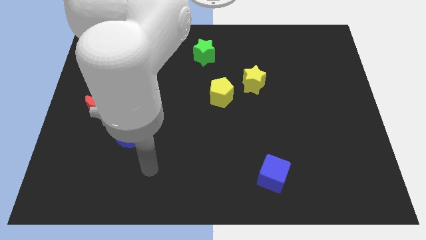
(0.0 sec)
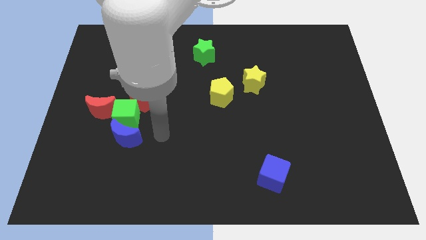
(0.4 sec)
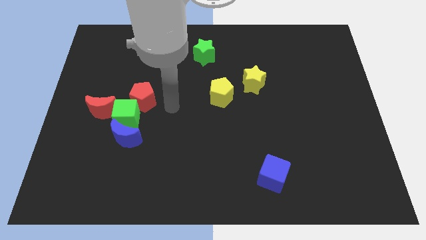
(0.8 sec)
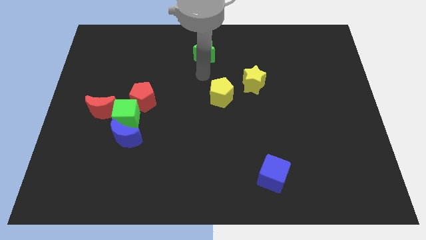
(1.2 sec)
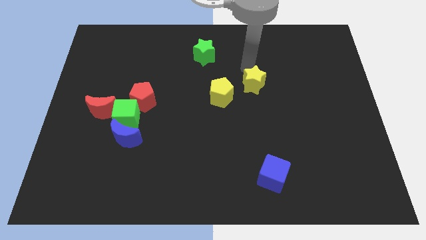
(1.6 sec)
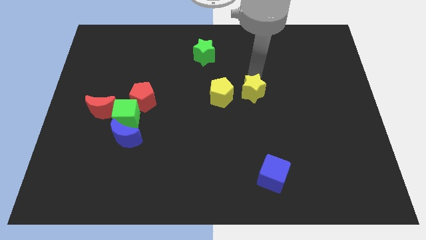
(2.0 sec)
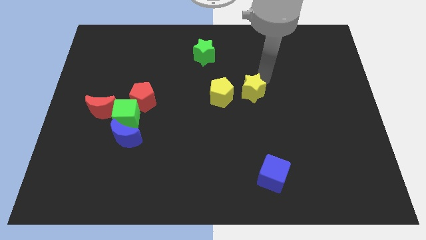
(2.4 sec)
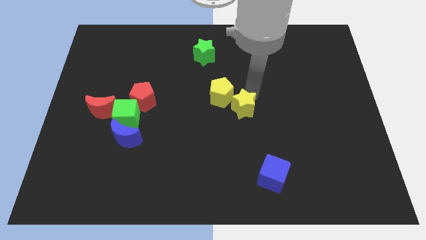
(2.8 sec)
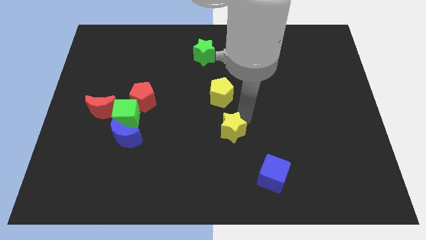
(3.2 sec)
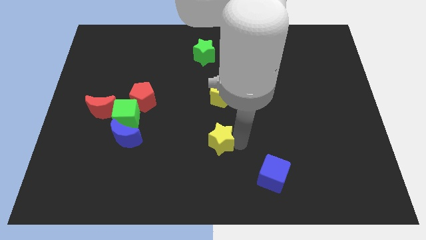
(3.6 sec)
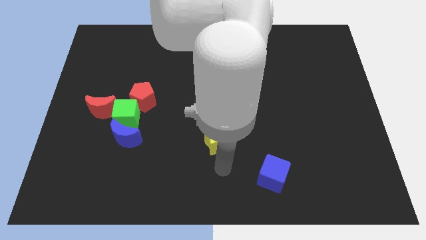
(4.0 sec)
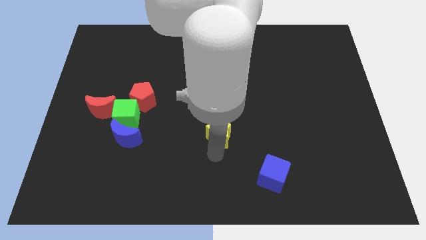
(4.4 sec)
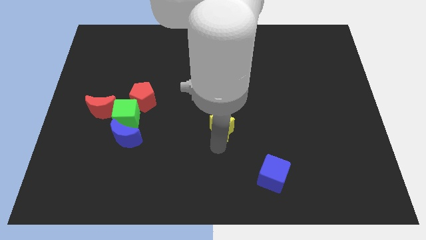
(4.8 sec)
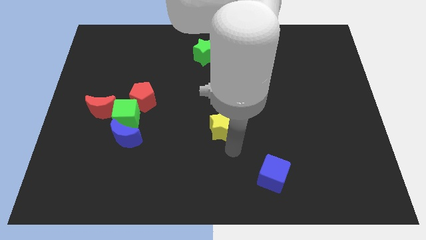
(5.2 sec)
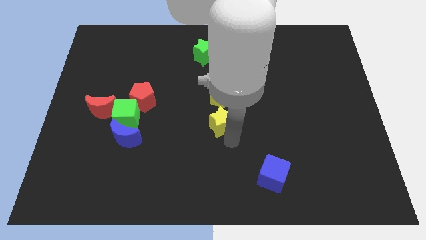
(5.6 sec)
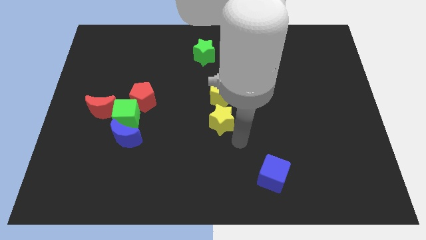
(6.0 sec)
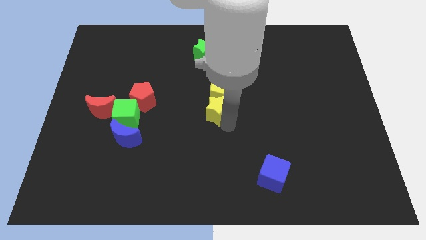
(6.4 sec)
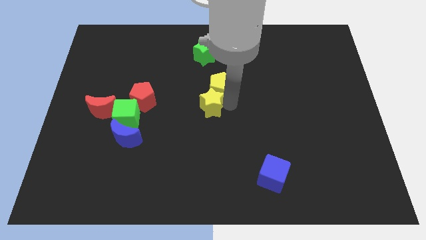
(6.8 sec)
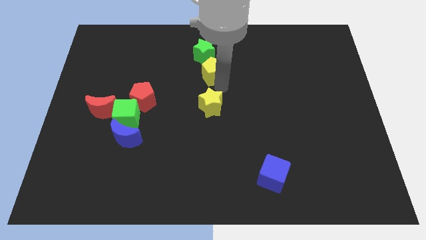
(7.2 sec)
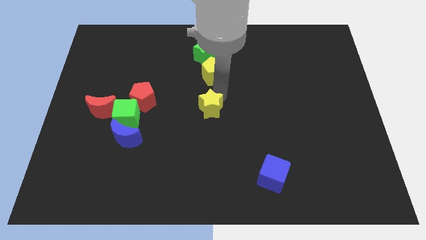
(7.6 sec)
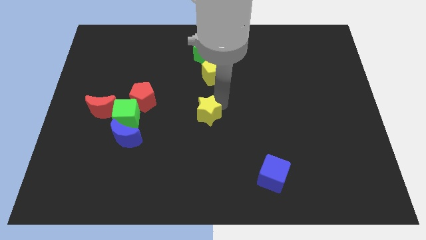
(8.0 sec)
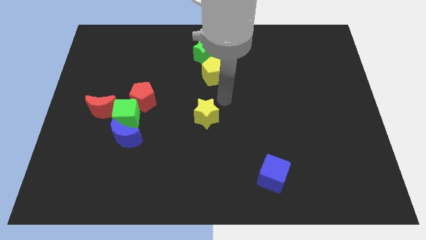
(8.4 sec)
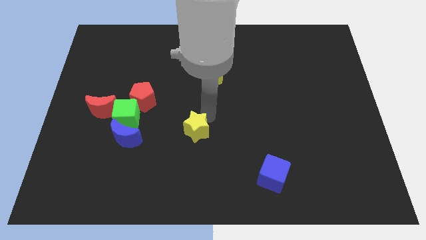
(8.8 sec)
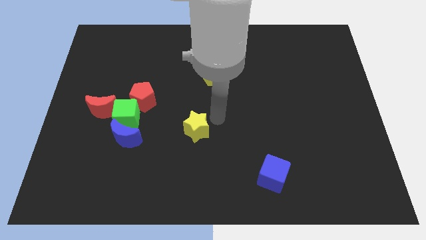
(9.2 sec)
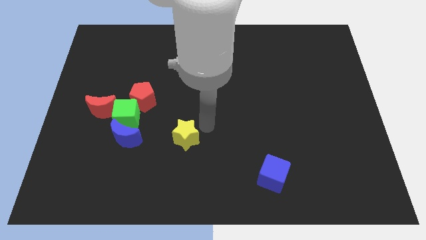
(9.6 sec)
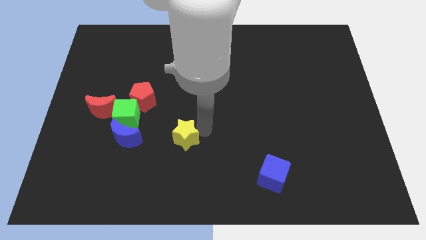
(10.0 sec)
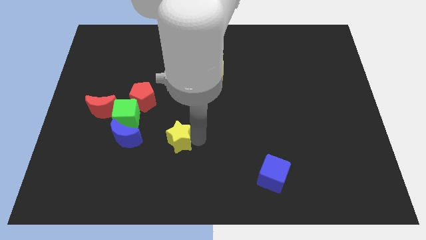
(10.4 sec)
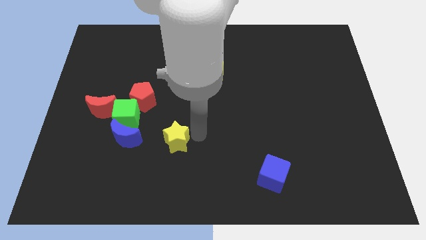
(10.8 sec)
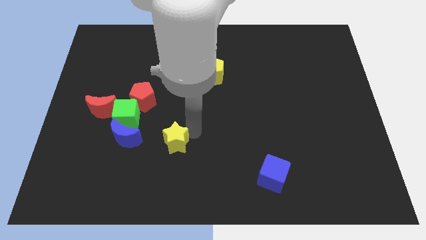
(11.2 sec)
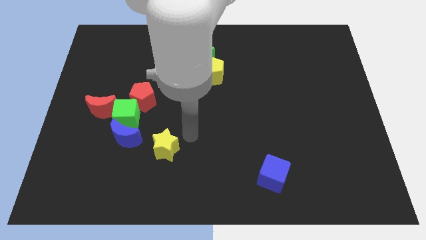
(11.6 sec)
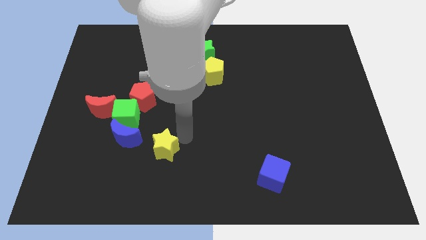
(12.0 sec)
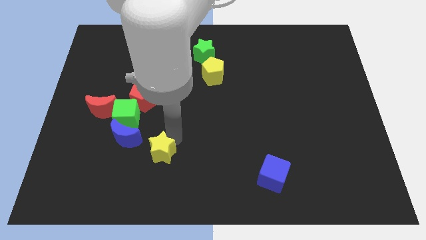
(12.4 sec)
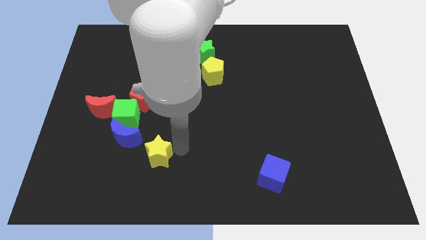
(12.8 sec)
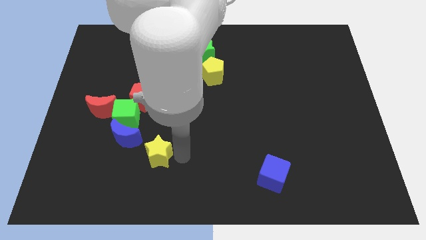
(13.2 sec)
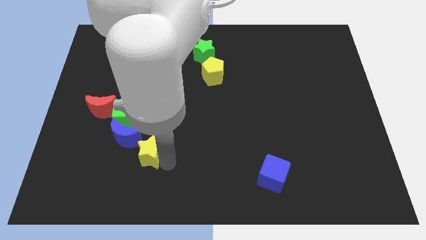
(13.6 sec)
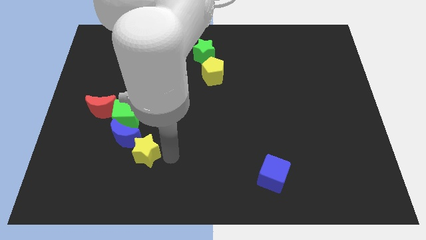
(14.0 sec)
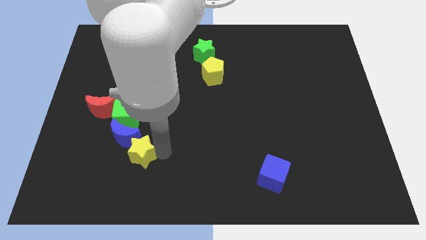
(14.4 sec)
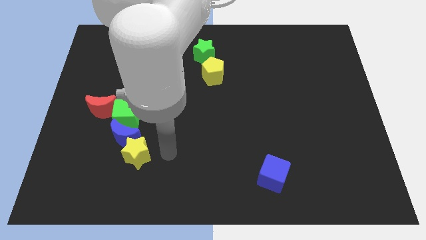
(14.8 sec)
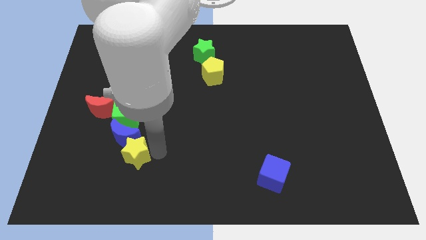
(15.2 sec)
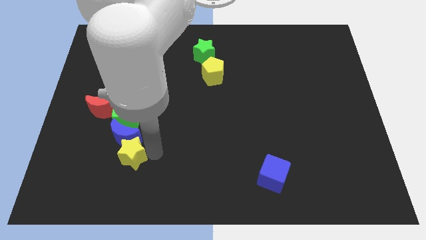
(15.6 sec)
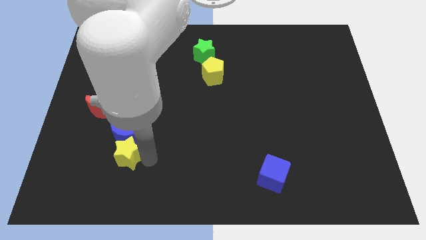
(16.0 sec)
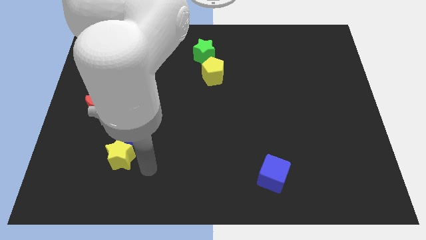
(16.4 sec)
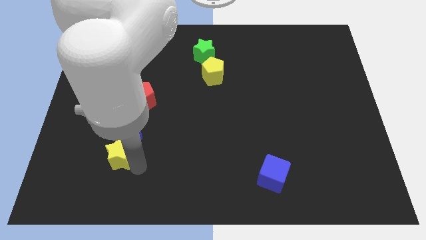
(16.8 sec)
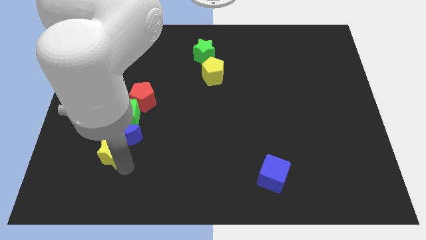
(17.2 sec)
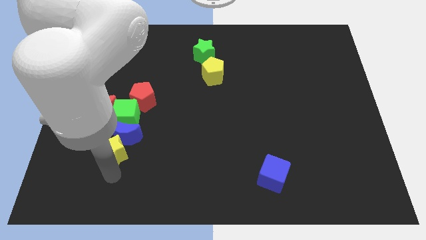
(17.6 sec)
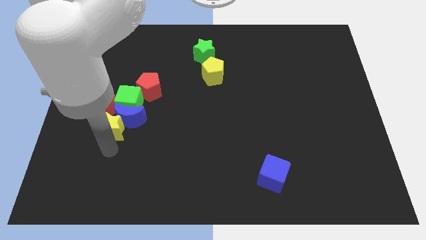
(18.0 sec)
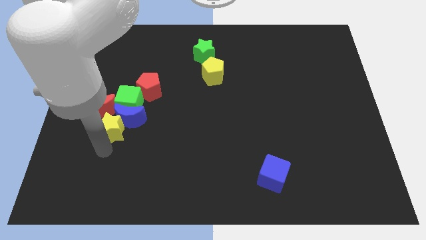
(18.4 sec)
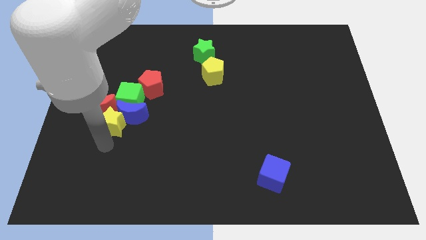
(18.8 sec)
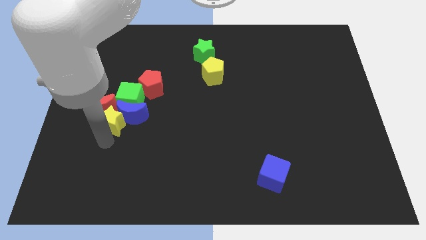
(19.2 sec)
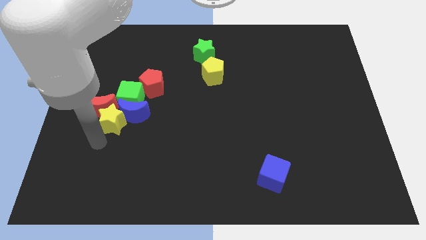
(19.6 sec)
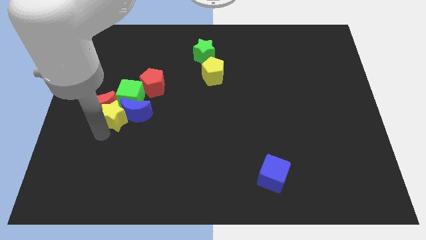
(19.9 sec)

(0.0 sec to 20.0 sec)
slide the yellow star to the bottom left of the red pentagon

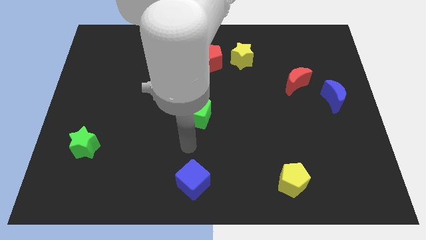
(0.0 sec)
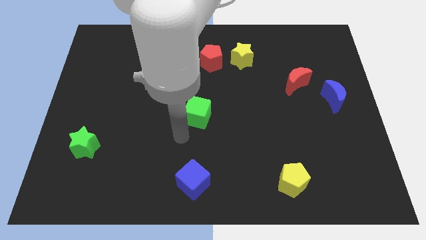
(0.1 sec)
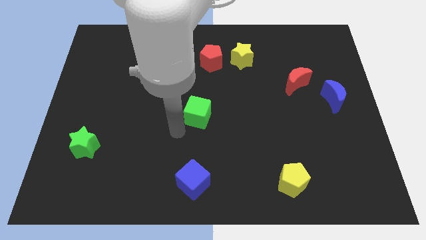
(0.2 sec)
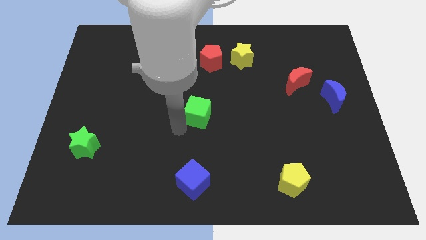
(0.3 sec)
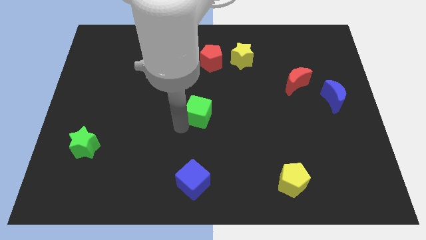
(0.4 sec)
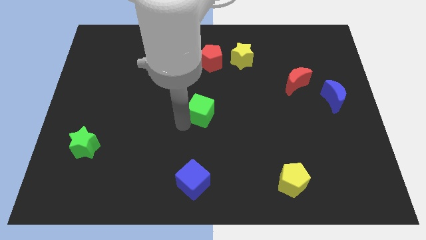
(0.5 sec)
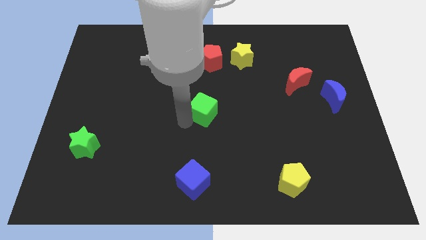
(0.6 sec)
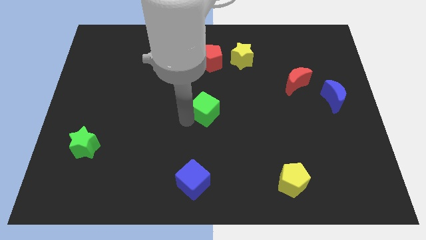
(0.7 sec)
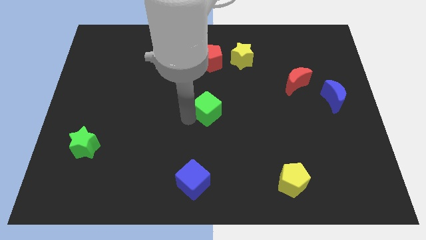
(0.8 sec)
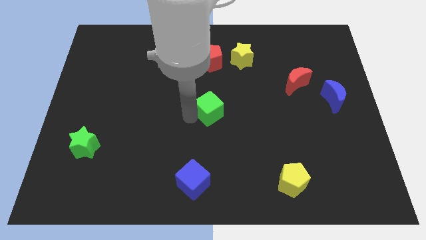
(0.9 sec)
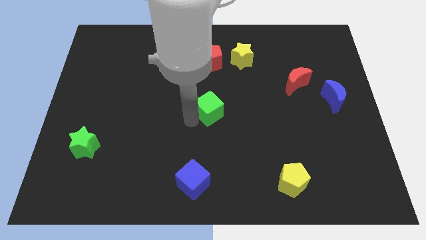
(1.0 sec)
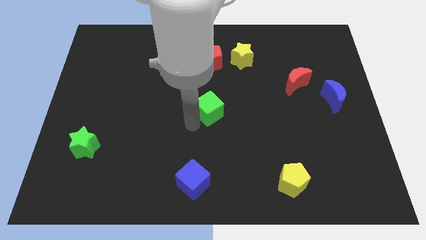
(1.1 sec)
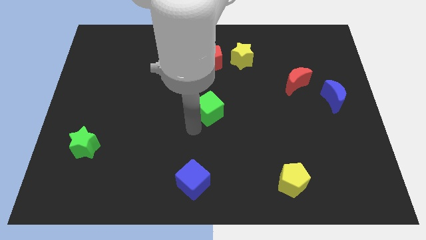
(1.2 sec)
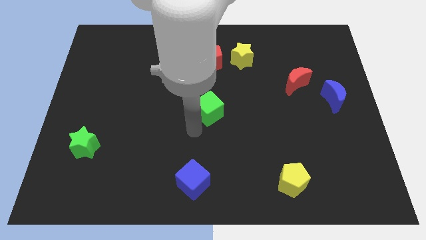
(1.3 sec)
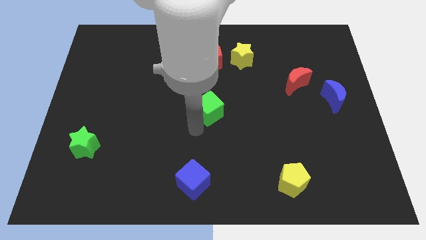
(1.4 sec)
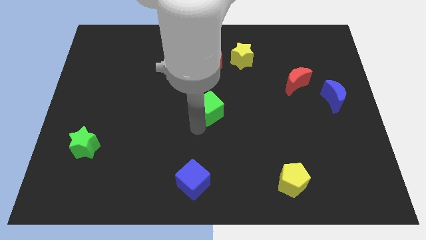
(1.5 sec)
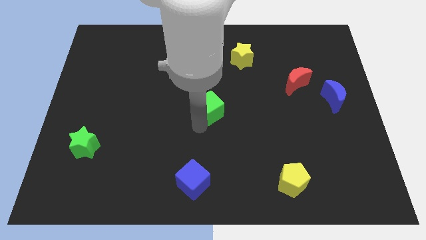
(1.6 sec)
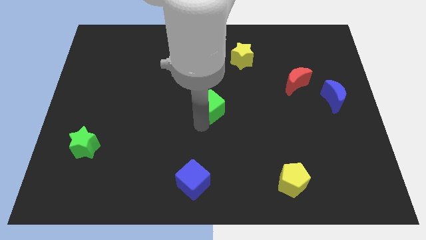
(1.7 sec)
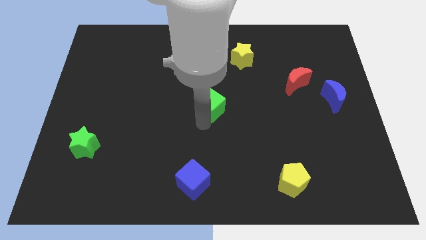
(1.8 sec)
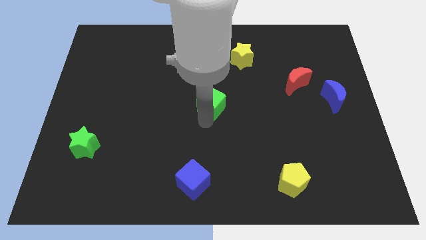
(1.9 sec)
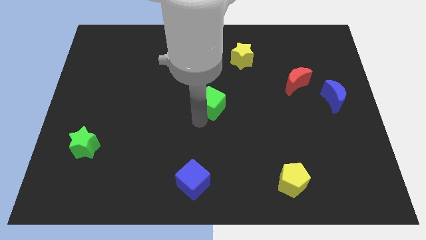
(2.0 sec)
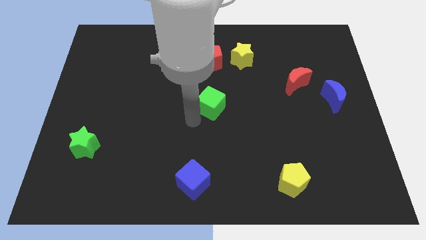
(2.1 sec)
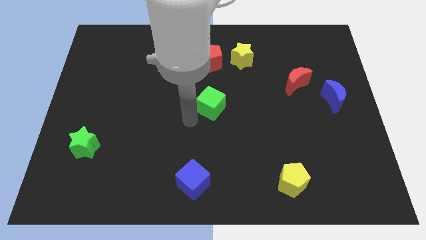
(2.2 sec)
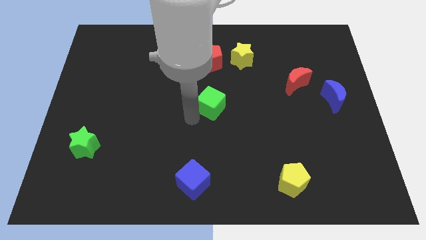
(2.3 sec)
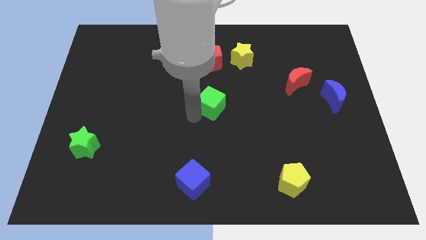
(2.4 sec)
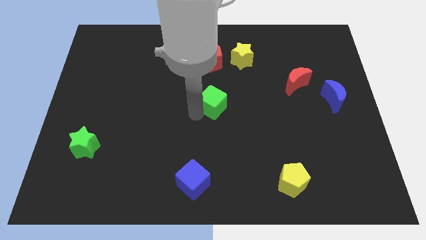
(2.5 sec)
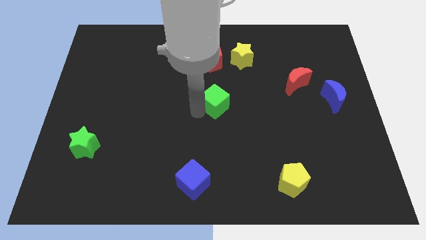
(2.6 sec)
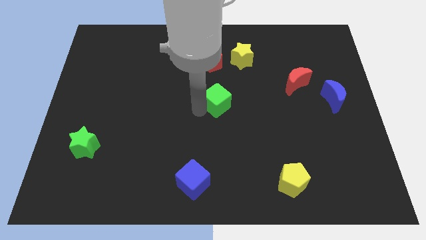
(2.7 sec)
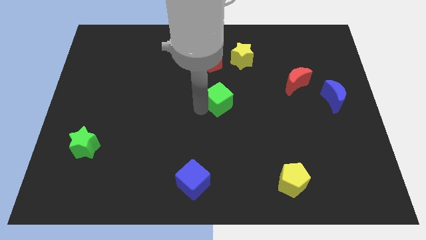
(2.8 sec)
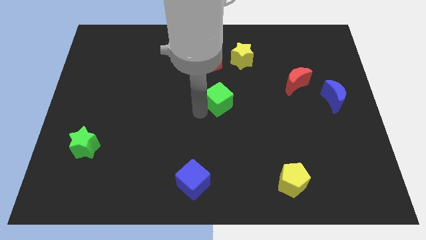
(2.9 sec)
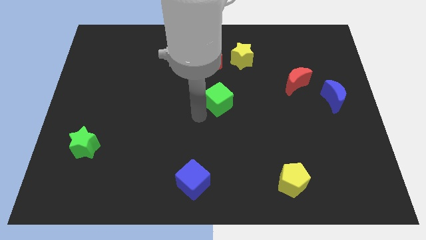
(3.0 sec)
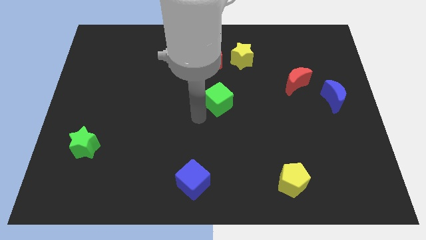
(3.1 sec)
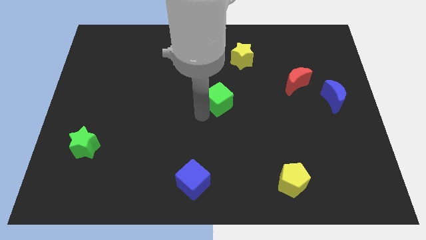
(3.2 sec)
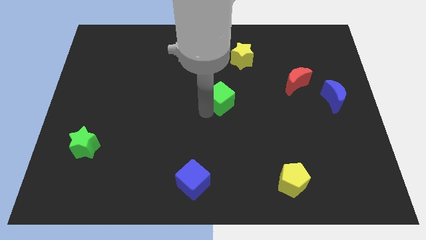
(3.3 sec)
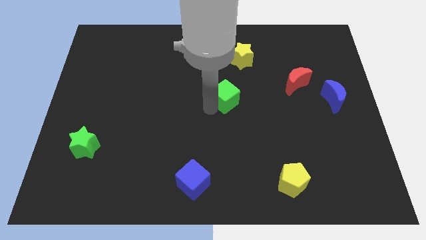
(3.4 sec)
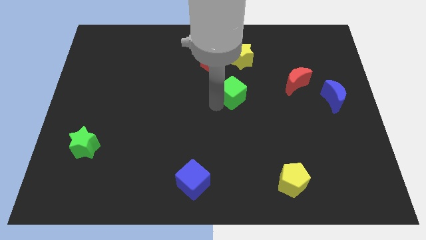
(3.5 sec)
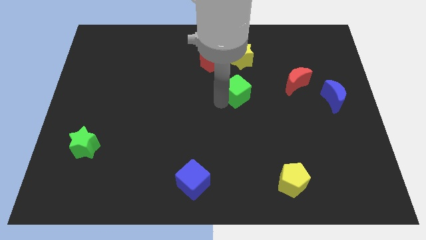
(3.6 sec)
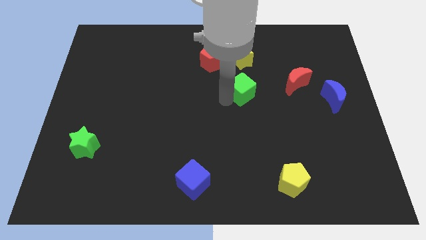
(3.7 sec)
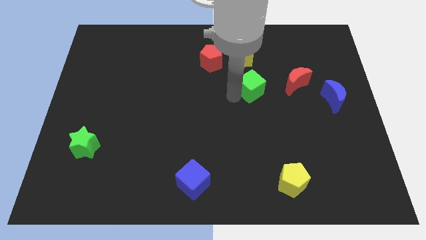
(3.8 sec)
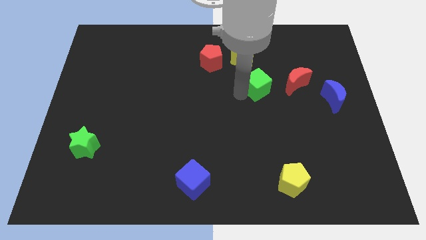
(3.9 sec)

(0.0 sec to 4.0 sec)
push the green cube to the bottom right side of the yellow star
